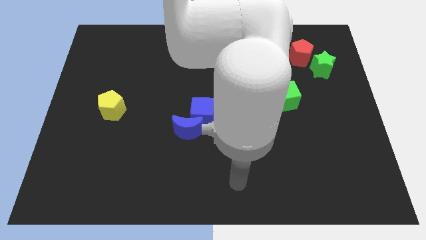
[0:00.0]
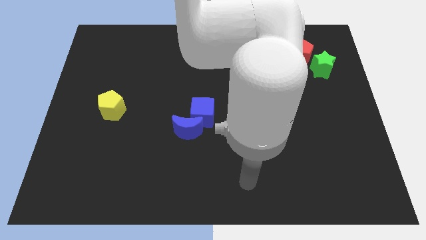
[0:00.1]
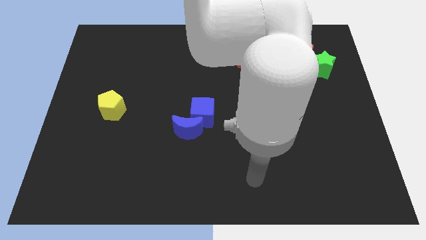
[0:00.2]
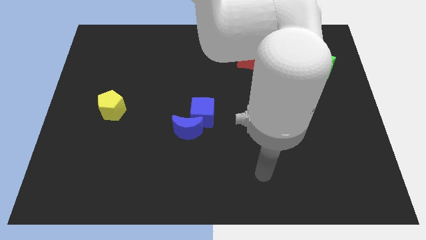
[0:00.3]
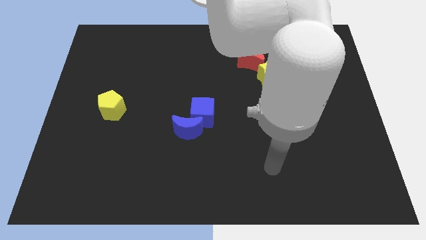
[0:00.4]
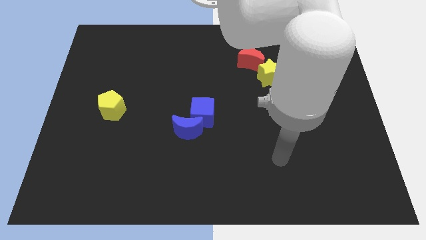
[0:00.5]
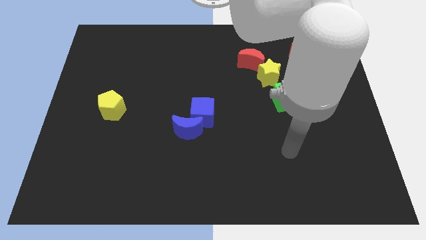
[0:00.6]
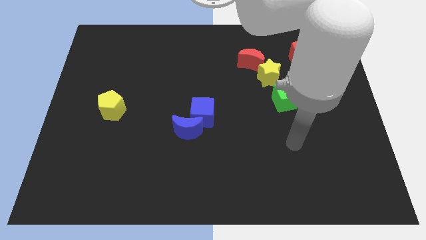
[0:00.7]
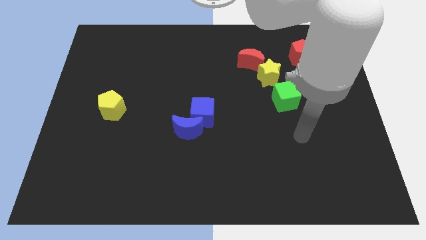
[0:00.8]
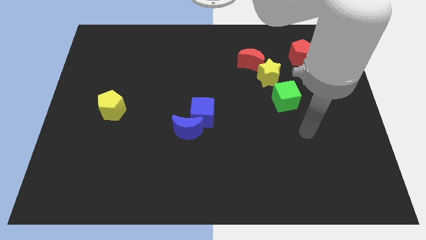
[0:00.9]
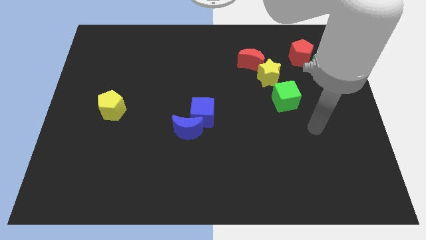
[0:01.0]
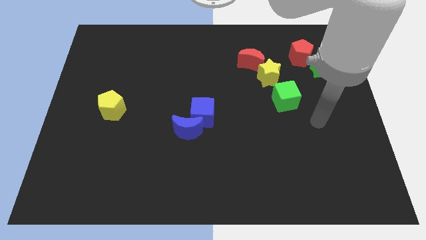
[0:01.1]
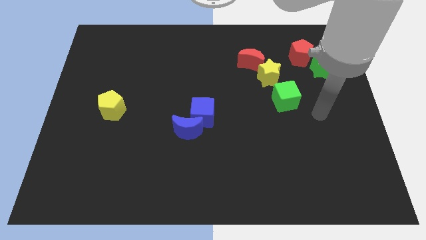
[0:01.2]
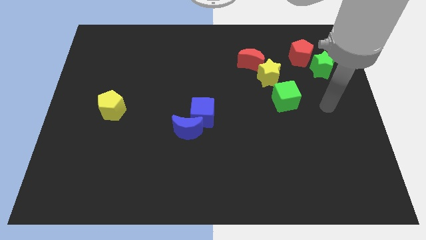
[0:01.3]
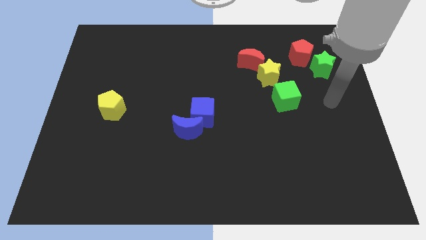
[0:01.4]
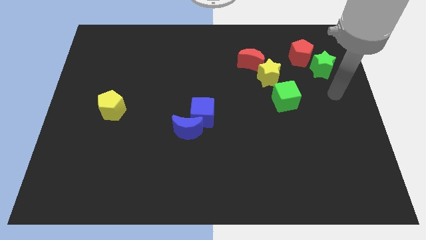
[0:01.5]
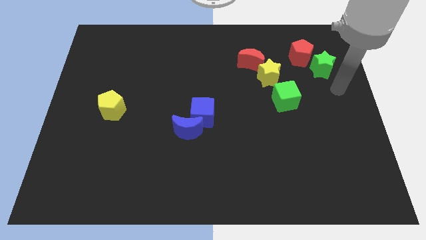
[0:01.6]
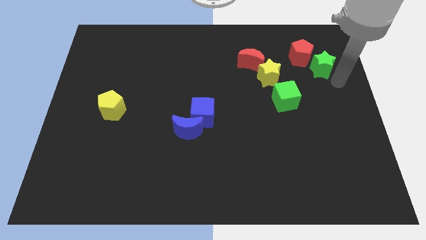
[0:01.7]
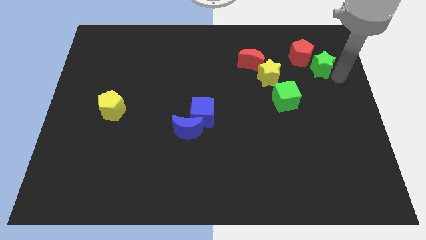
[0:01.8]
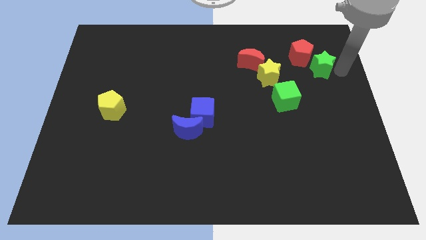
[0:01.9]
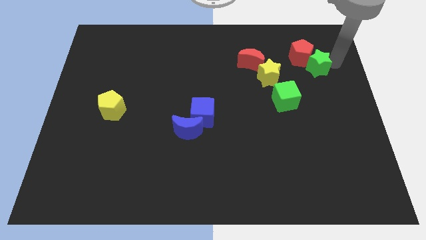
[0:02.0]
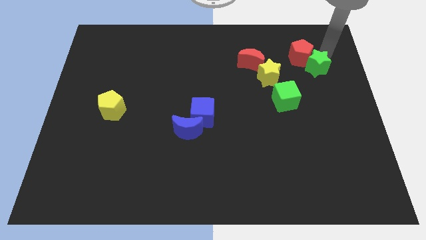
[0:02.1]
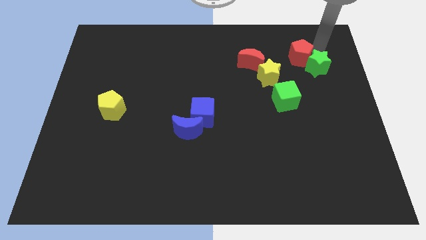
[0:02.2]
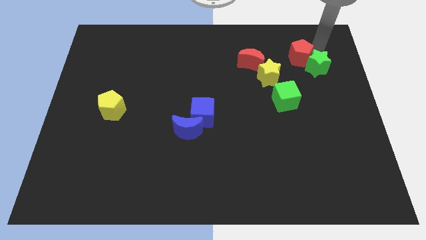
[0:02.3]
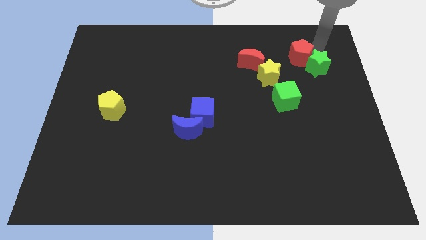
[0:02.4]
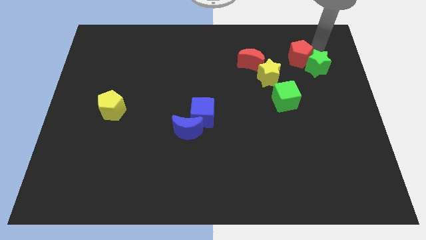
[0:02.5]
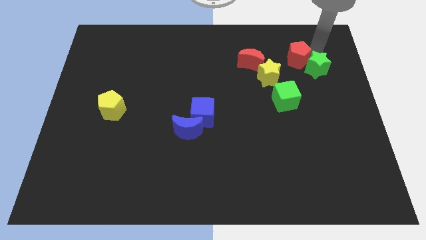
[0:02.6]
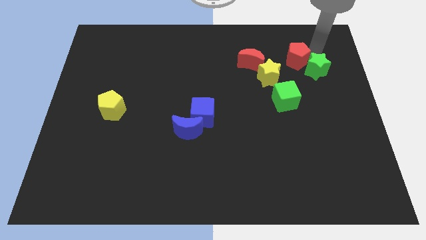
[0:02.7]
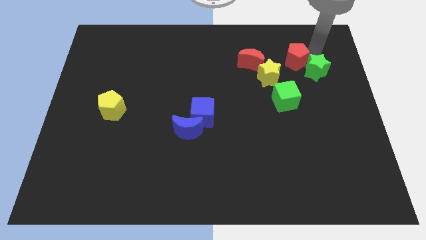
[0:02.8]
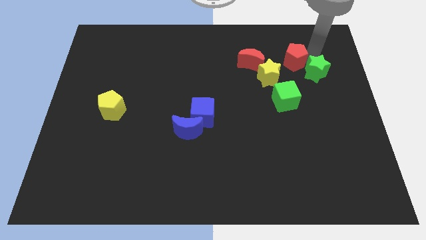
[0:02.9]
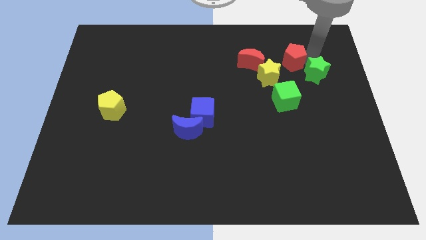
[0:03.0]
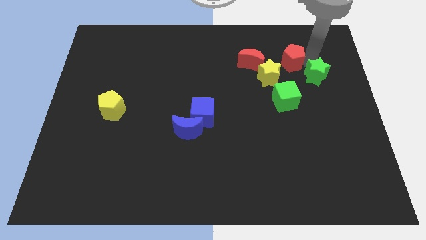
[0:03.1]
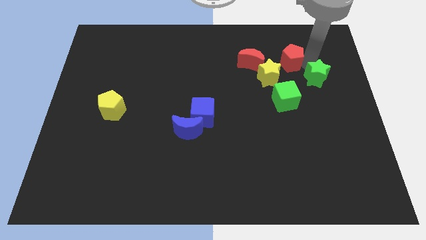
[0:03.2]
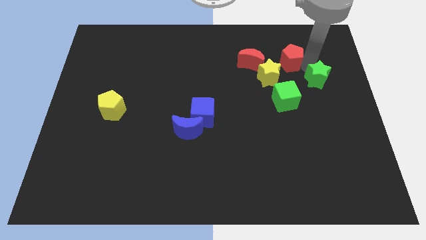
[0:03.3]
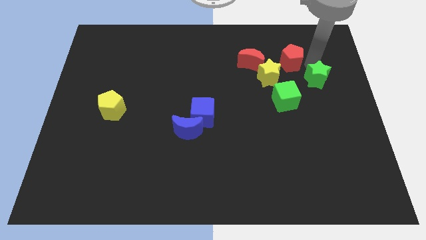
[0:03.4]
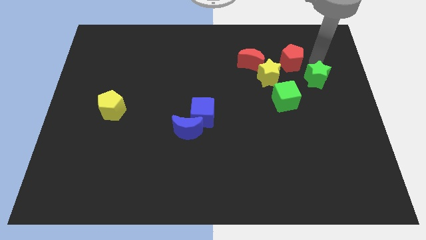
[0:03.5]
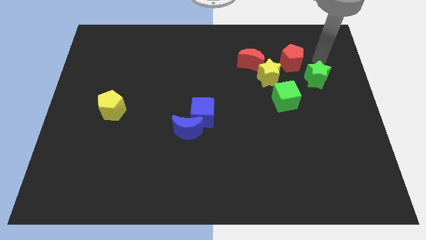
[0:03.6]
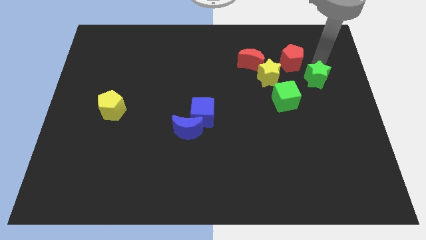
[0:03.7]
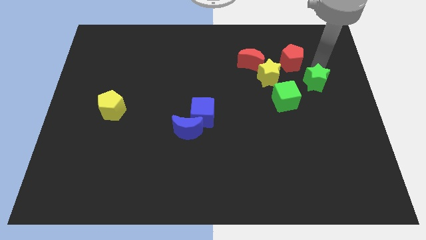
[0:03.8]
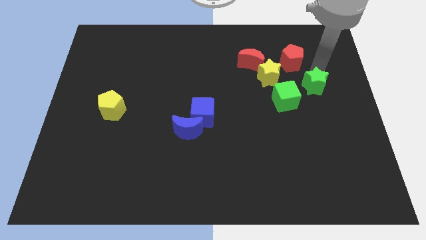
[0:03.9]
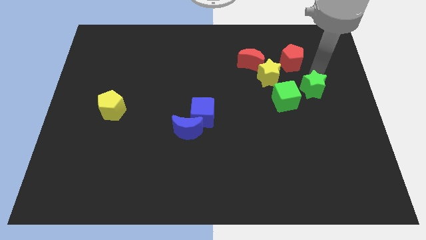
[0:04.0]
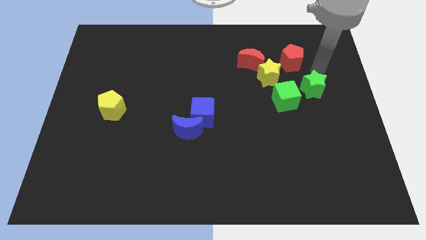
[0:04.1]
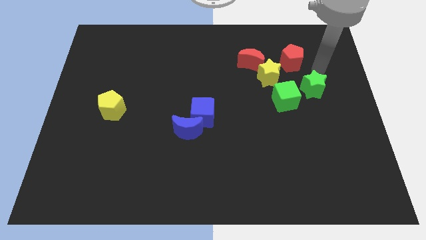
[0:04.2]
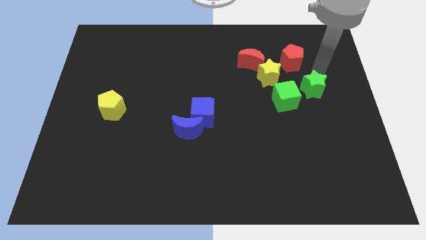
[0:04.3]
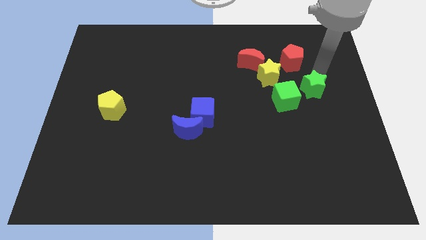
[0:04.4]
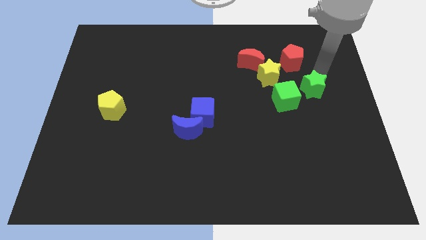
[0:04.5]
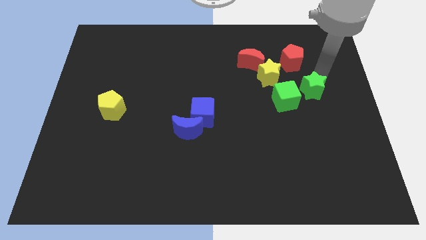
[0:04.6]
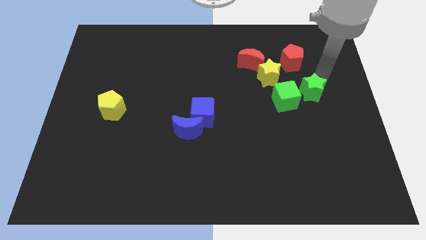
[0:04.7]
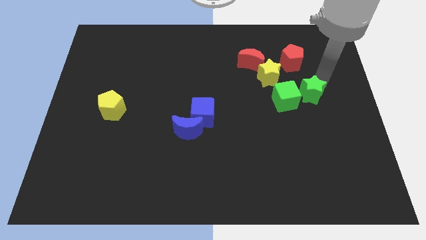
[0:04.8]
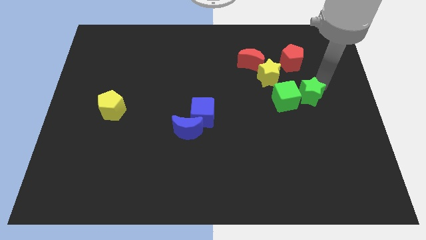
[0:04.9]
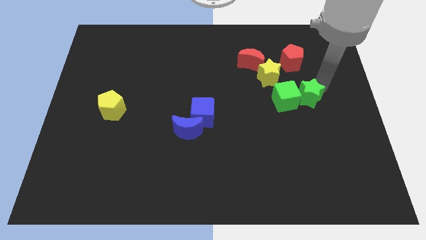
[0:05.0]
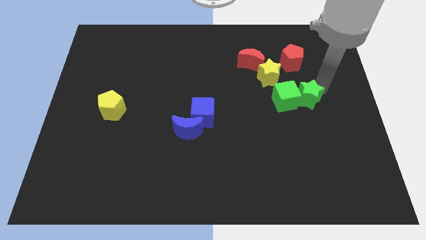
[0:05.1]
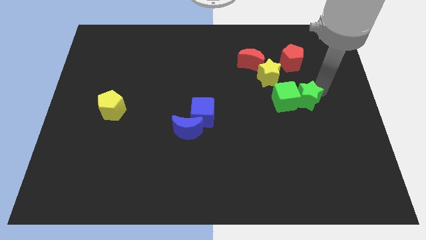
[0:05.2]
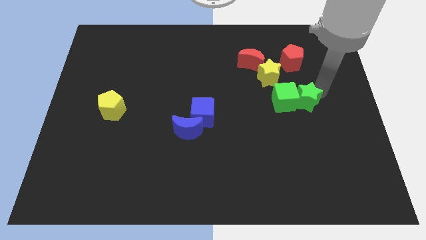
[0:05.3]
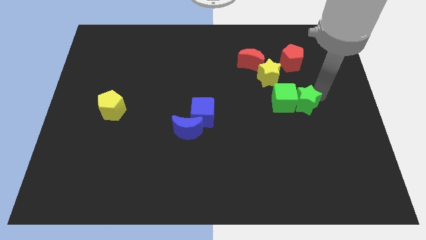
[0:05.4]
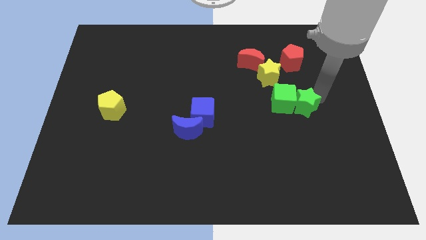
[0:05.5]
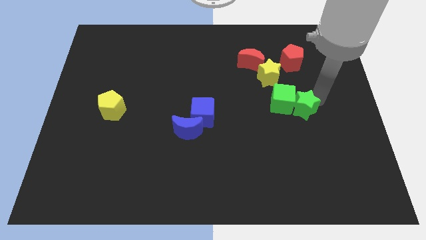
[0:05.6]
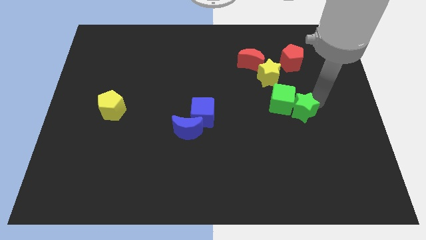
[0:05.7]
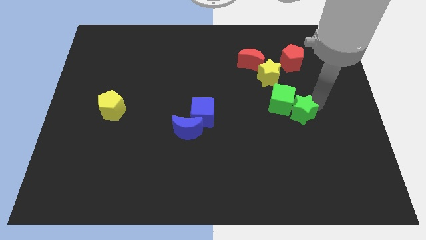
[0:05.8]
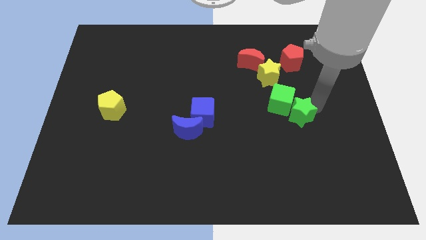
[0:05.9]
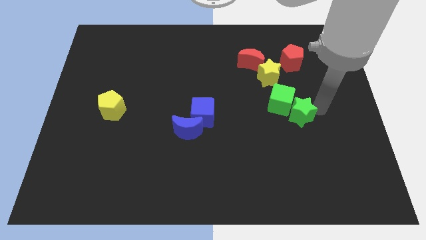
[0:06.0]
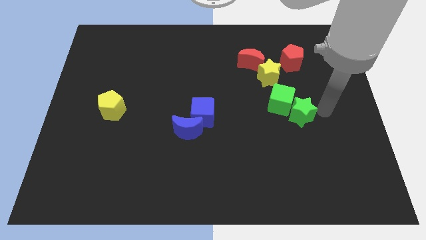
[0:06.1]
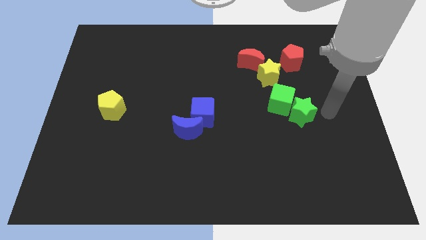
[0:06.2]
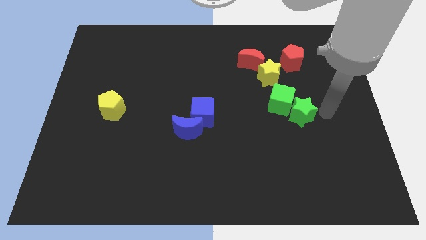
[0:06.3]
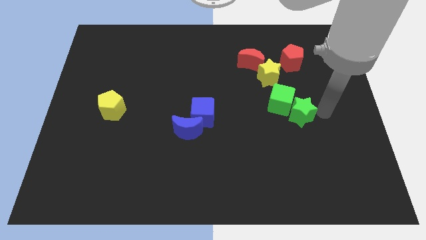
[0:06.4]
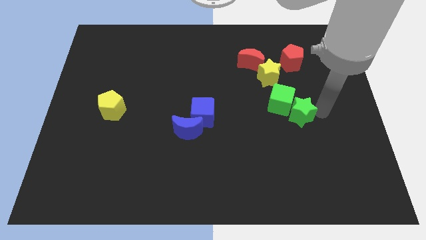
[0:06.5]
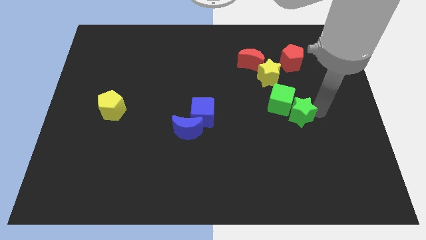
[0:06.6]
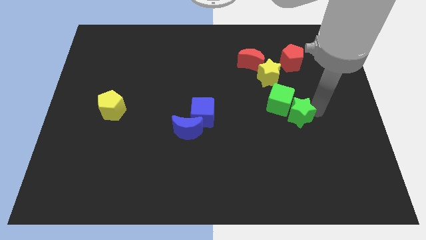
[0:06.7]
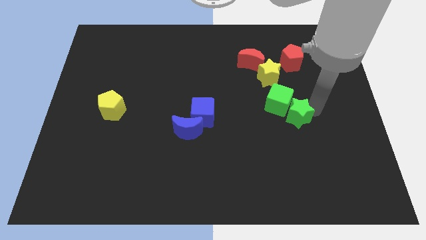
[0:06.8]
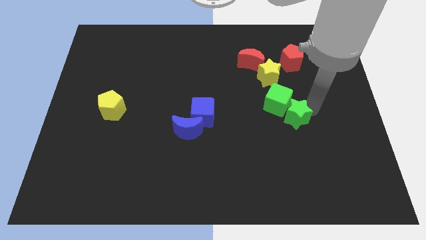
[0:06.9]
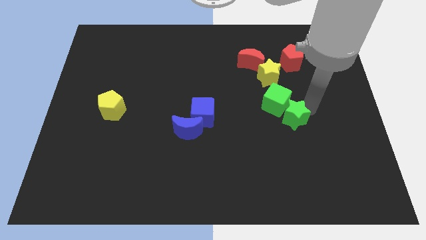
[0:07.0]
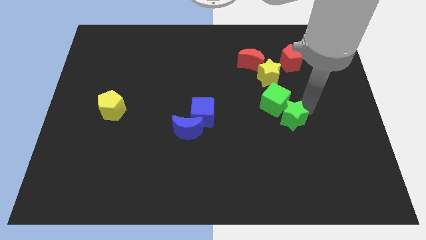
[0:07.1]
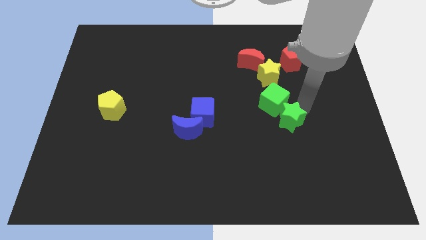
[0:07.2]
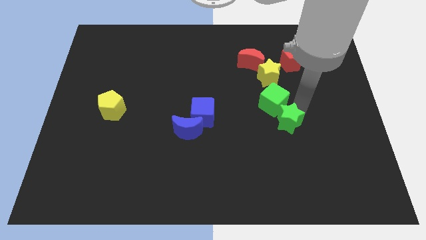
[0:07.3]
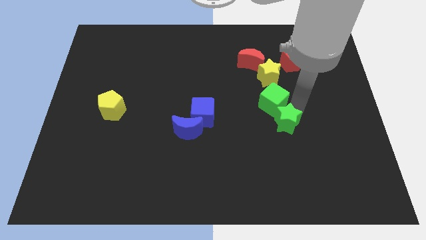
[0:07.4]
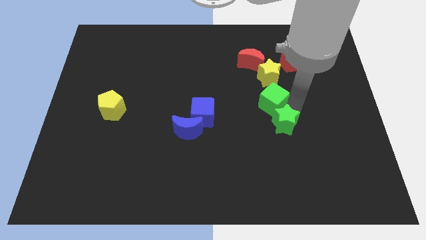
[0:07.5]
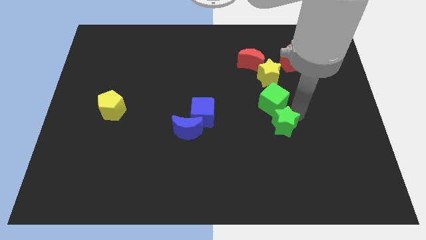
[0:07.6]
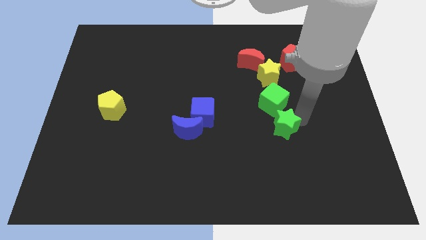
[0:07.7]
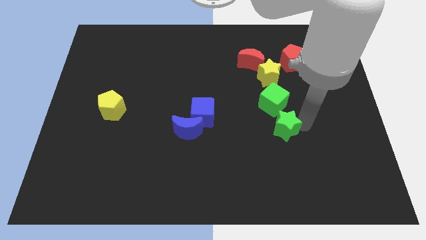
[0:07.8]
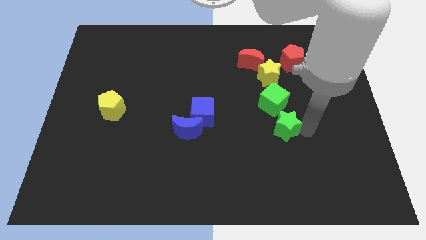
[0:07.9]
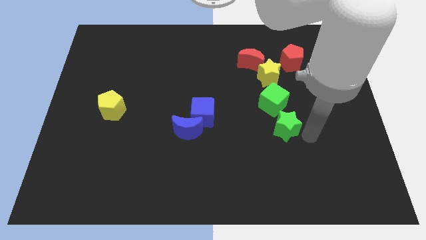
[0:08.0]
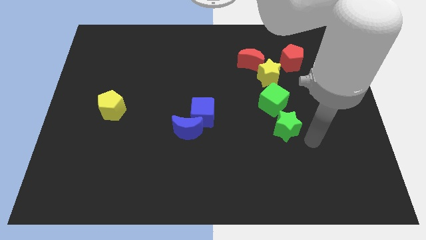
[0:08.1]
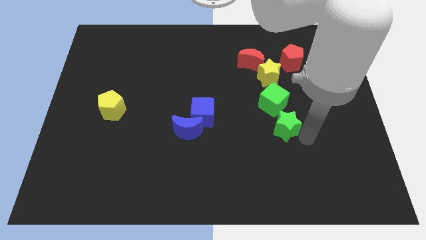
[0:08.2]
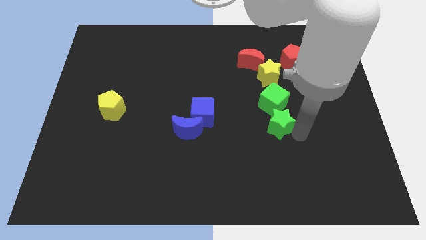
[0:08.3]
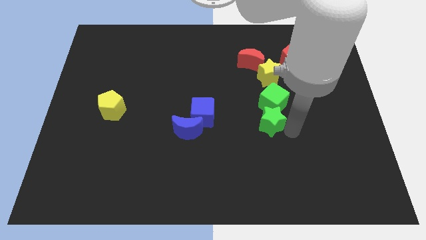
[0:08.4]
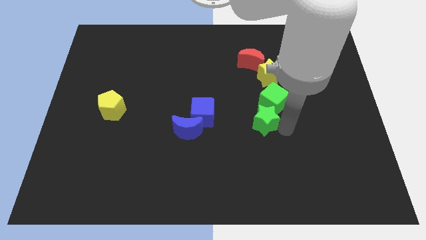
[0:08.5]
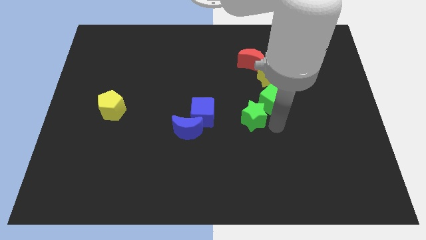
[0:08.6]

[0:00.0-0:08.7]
slide the green star to the center of the board
